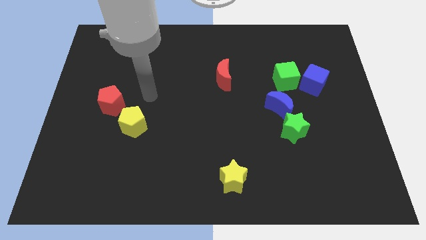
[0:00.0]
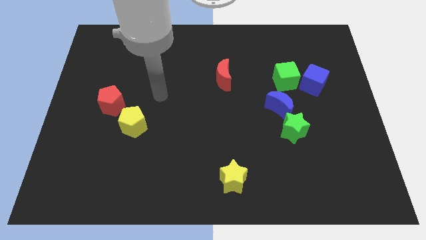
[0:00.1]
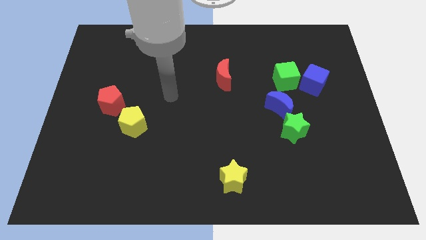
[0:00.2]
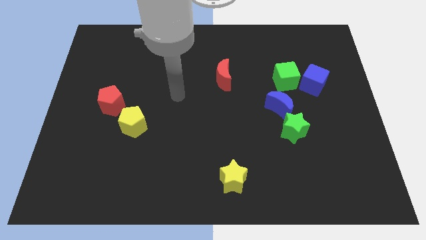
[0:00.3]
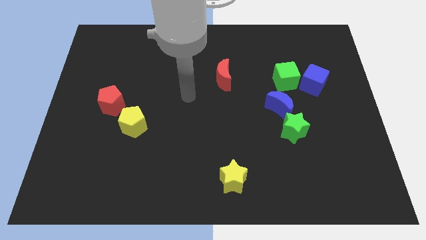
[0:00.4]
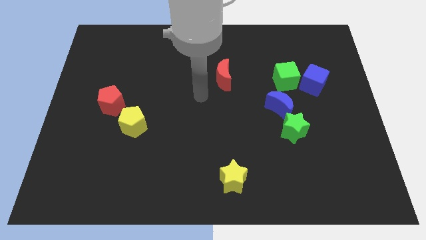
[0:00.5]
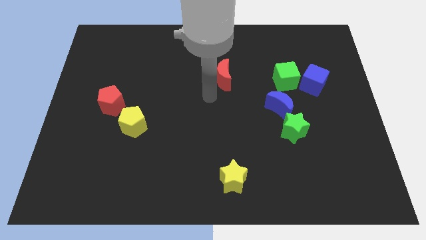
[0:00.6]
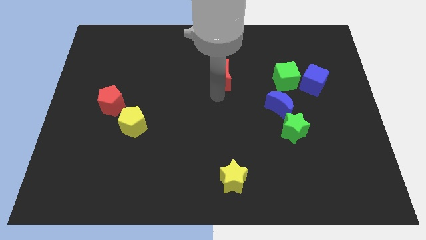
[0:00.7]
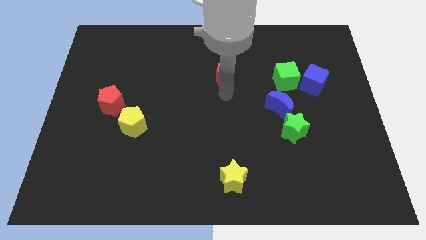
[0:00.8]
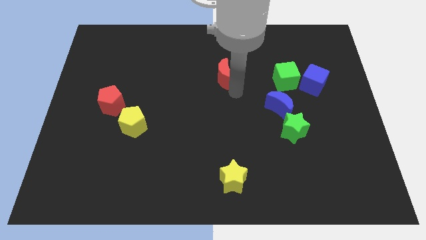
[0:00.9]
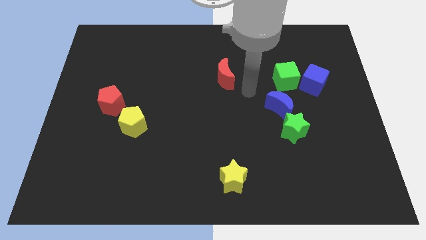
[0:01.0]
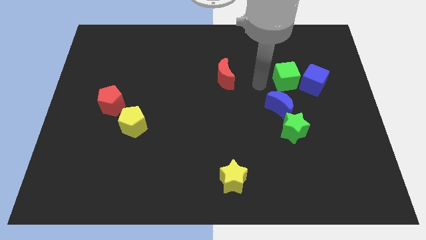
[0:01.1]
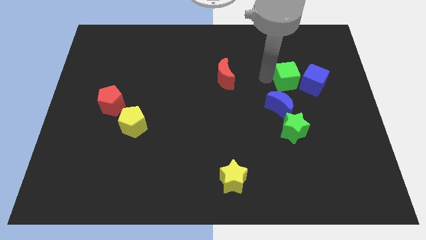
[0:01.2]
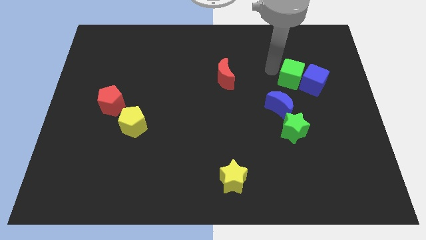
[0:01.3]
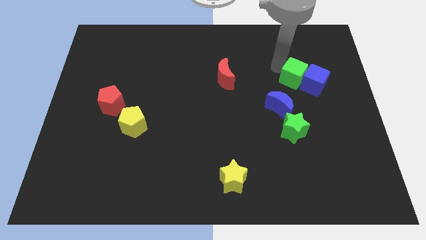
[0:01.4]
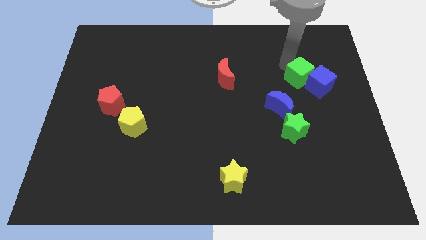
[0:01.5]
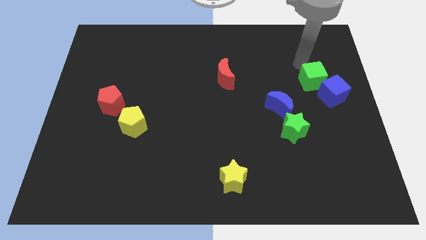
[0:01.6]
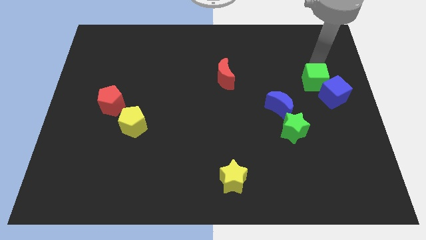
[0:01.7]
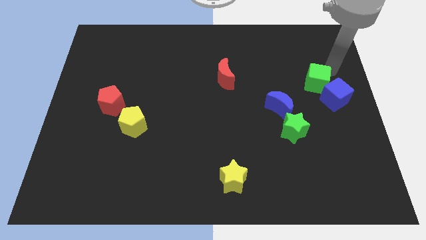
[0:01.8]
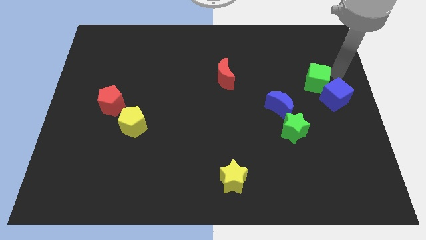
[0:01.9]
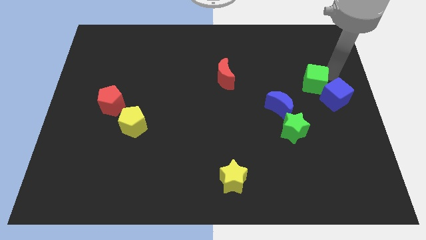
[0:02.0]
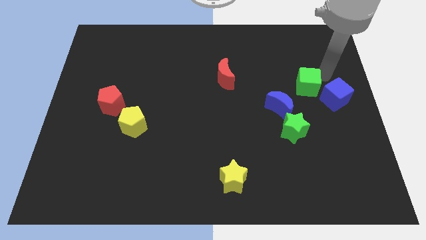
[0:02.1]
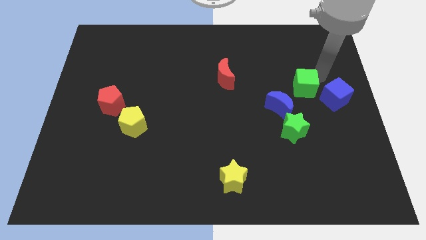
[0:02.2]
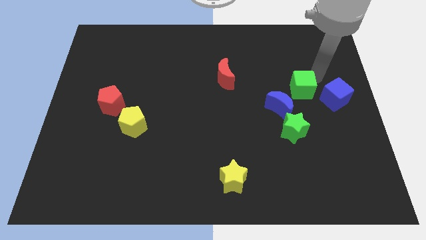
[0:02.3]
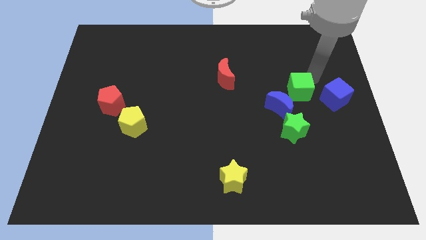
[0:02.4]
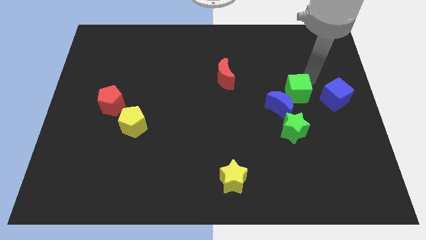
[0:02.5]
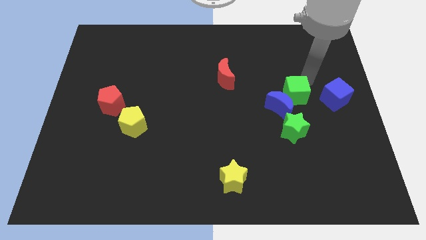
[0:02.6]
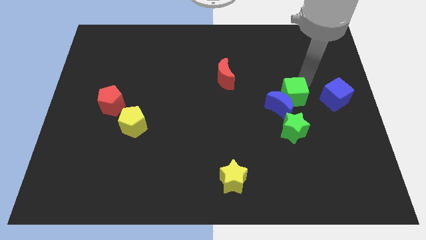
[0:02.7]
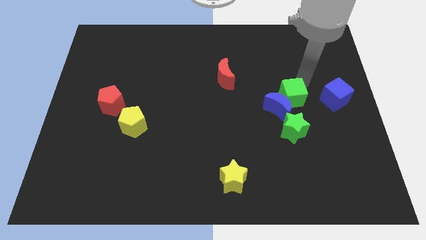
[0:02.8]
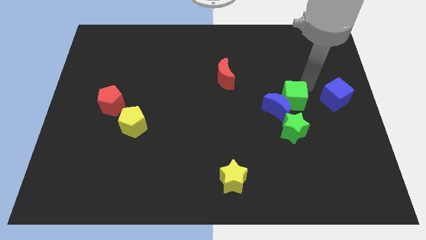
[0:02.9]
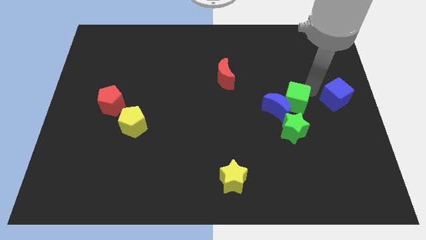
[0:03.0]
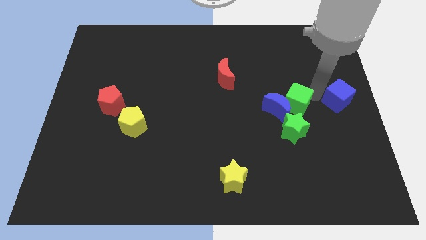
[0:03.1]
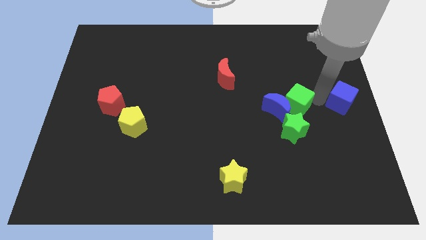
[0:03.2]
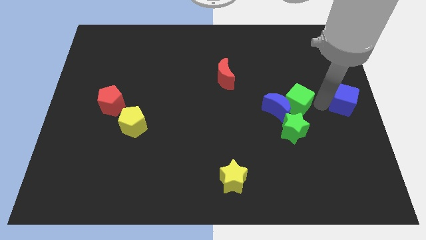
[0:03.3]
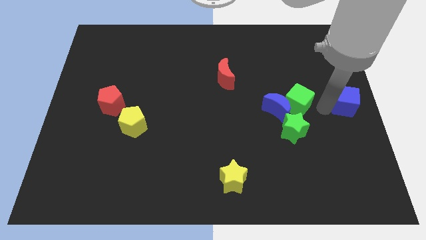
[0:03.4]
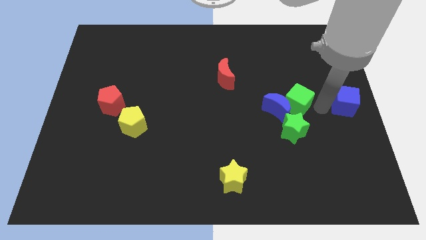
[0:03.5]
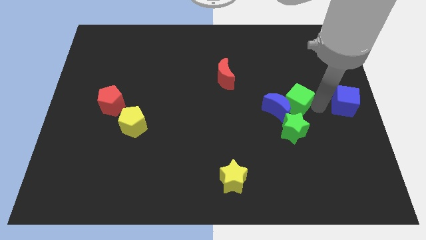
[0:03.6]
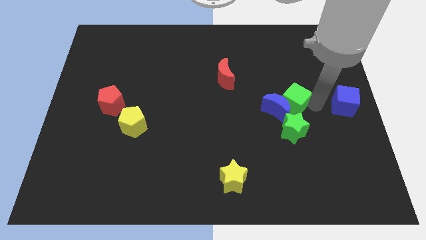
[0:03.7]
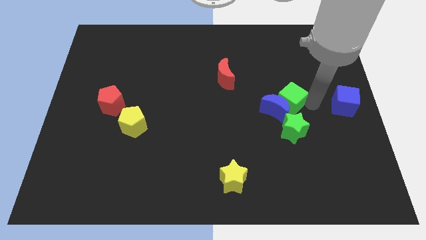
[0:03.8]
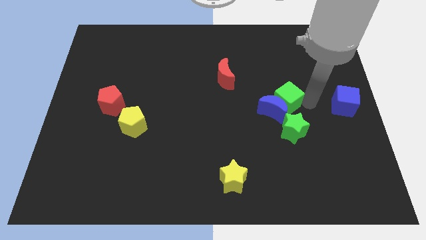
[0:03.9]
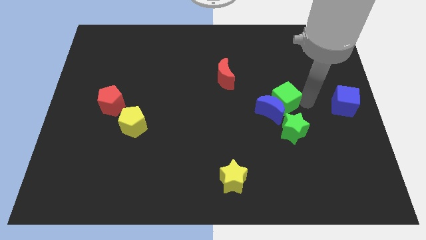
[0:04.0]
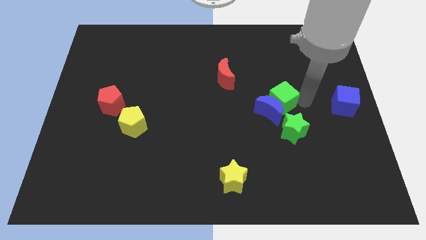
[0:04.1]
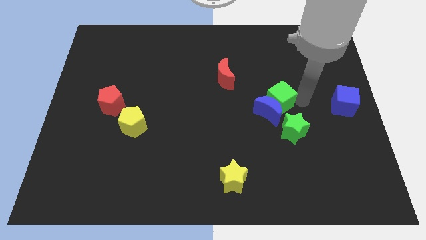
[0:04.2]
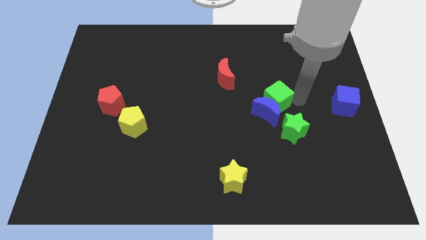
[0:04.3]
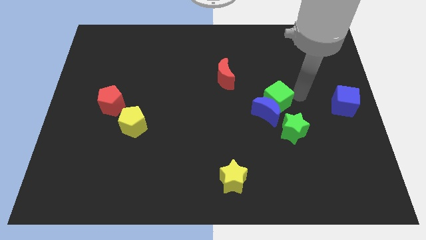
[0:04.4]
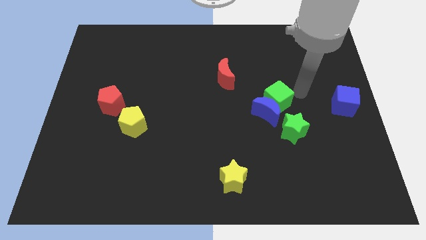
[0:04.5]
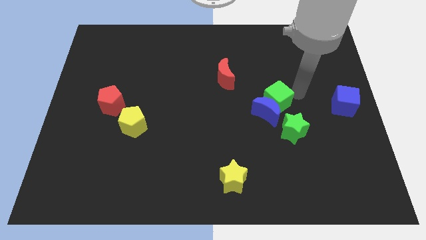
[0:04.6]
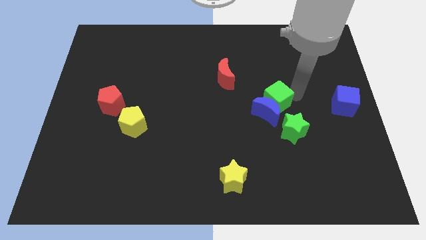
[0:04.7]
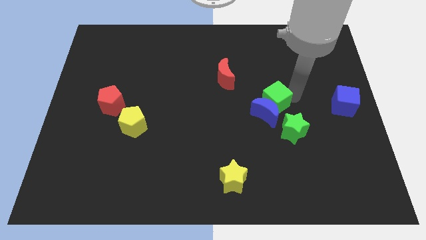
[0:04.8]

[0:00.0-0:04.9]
slide the green cube somewhat downwards and then to the left

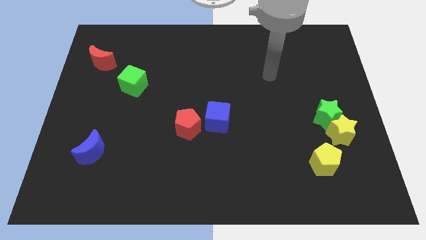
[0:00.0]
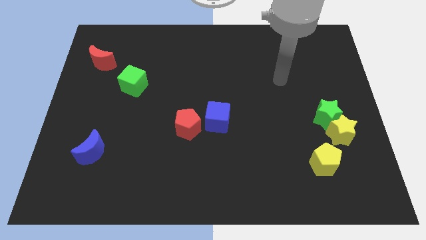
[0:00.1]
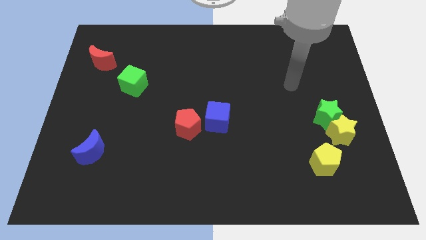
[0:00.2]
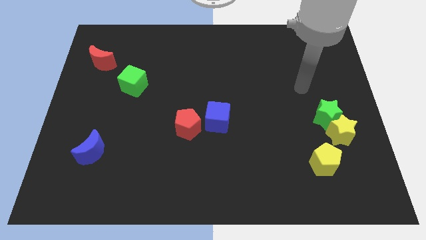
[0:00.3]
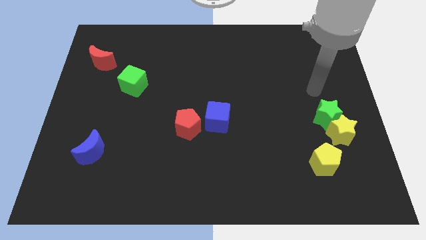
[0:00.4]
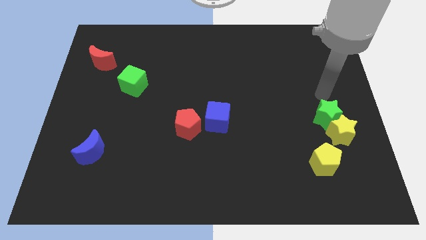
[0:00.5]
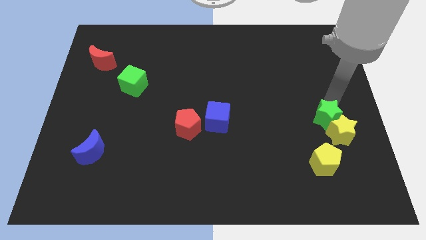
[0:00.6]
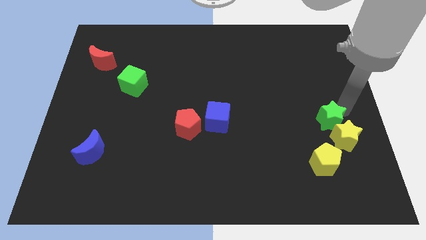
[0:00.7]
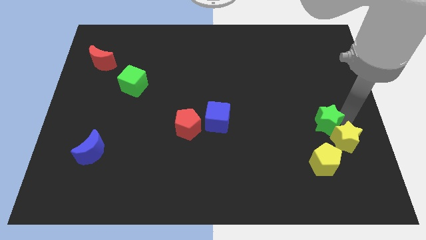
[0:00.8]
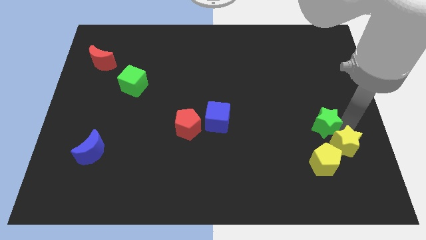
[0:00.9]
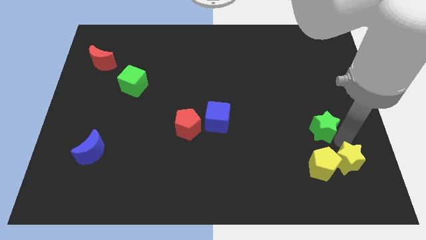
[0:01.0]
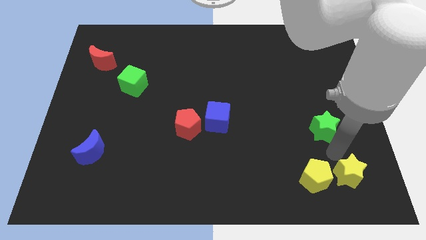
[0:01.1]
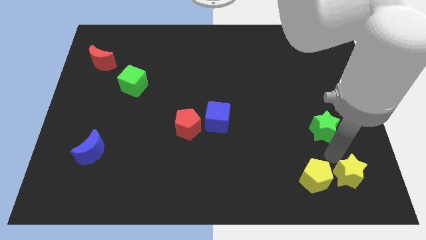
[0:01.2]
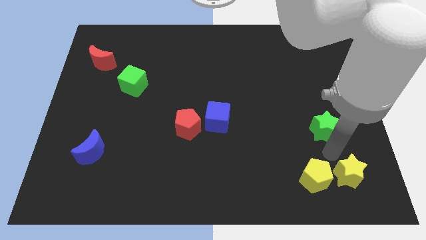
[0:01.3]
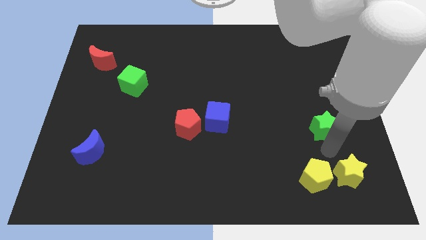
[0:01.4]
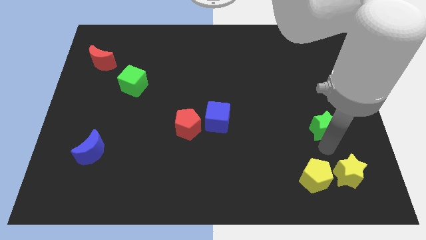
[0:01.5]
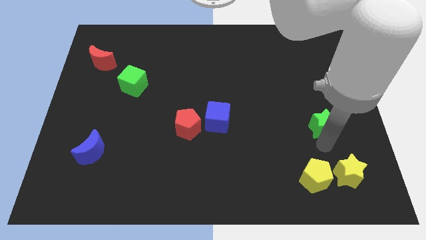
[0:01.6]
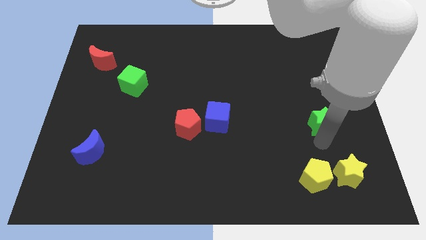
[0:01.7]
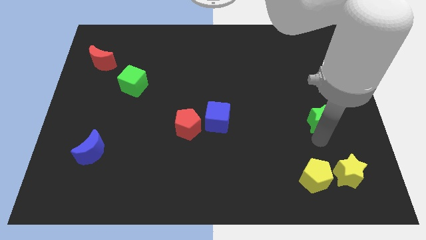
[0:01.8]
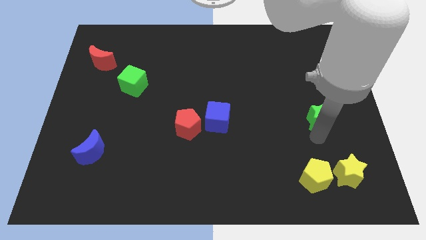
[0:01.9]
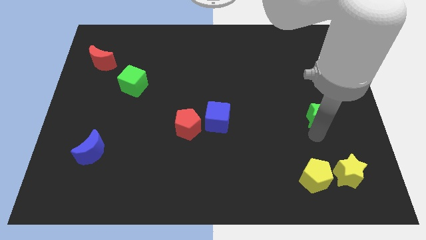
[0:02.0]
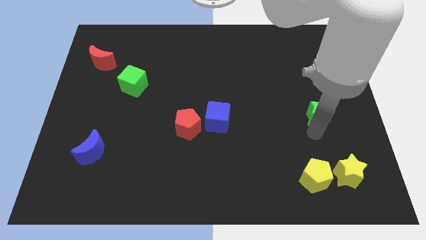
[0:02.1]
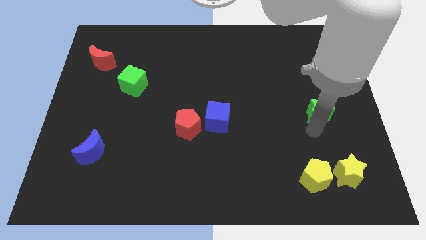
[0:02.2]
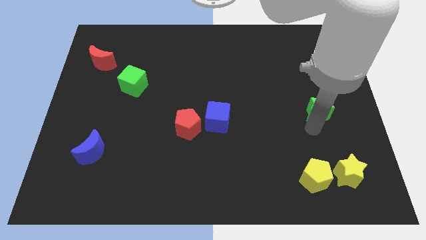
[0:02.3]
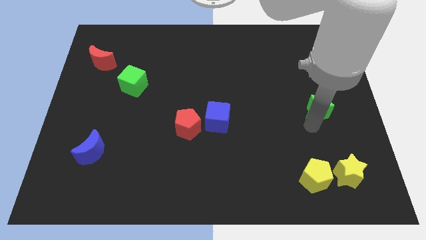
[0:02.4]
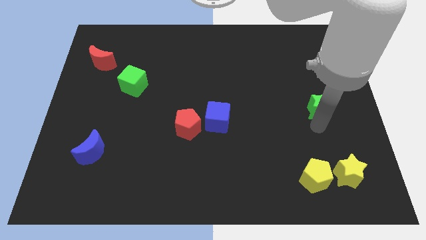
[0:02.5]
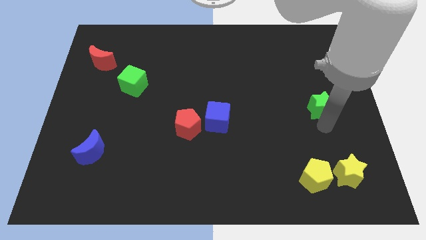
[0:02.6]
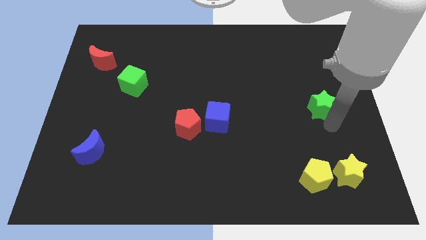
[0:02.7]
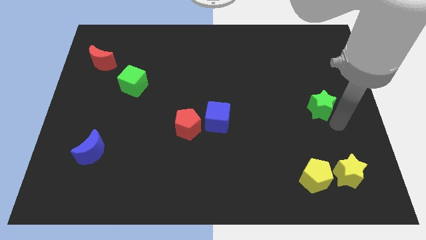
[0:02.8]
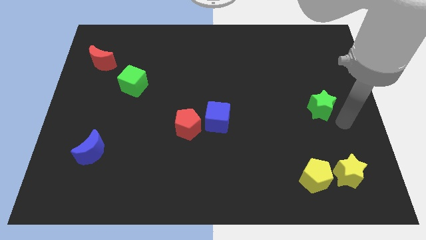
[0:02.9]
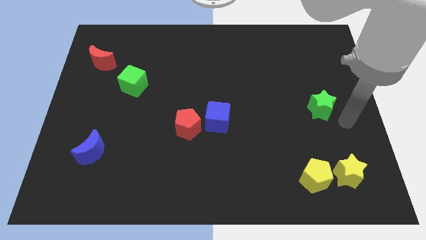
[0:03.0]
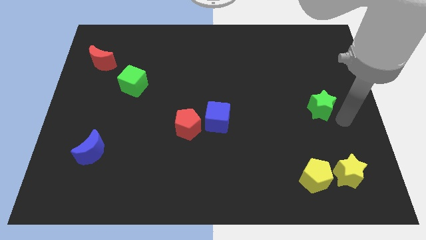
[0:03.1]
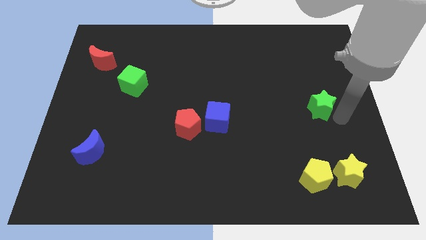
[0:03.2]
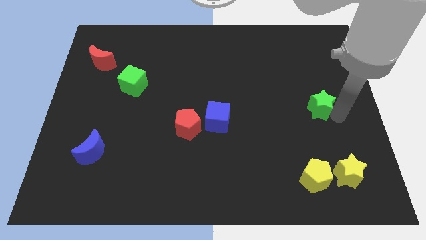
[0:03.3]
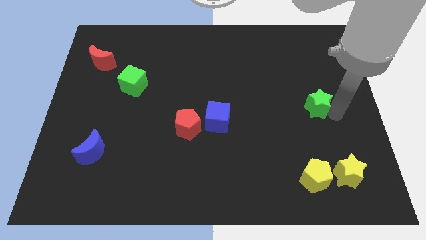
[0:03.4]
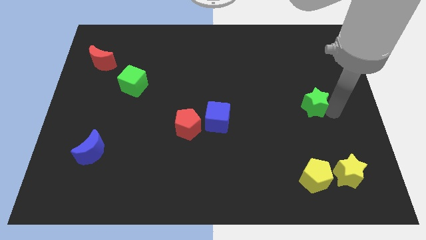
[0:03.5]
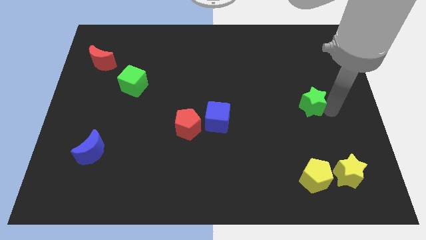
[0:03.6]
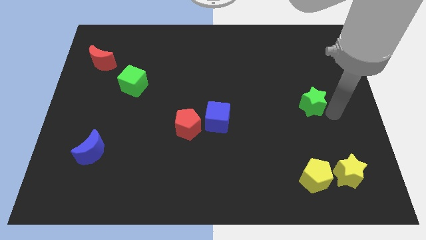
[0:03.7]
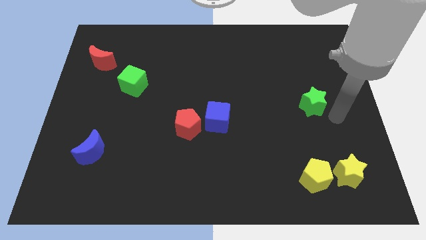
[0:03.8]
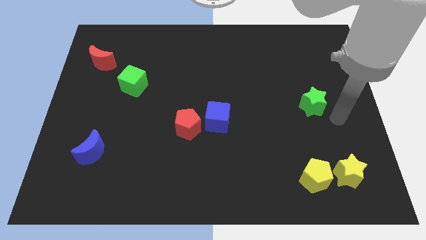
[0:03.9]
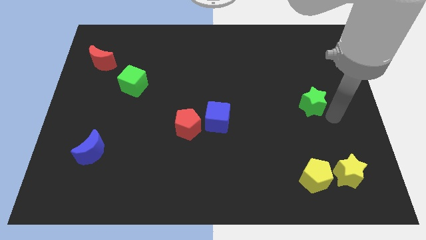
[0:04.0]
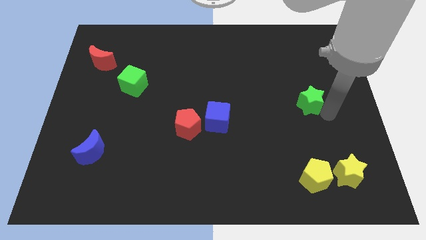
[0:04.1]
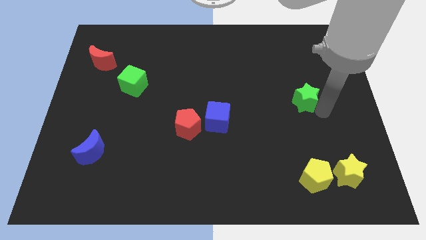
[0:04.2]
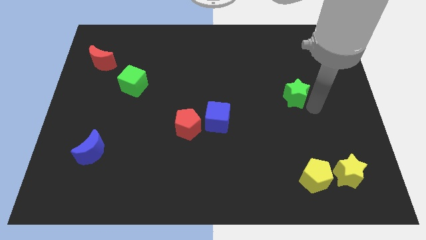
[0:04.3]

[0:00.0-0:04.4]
slightly slide the green star diagonally upwards and to the left
